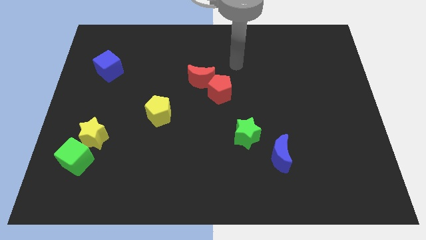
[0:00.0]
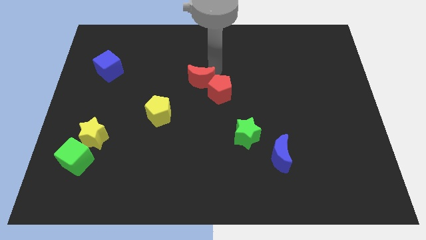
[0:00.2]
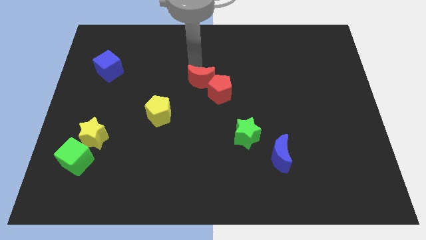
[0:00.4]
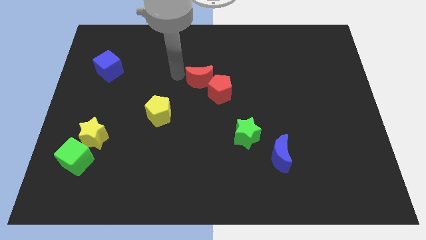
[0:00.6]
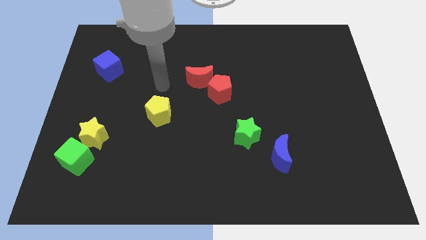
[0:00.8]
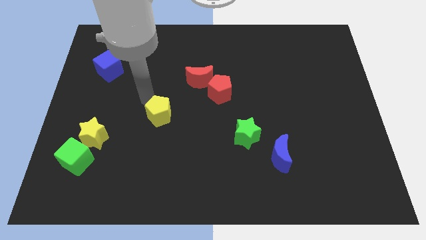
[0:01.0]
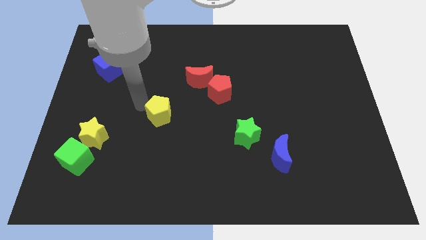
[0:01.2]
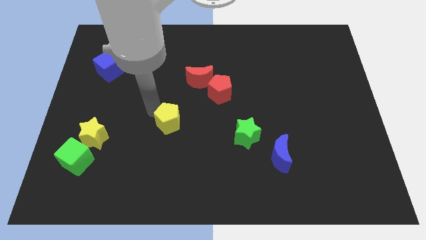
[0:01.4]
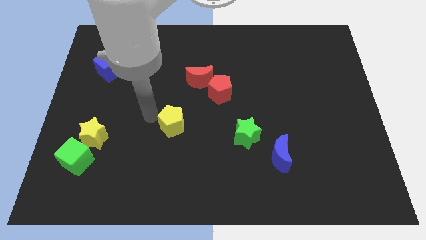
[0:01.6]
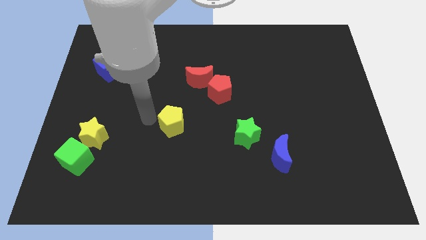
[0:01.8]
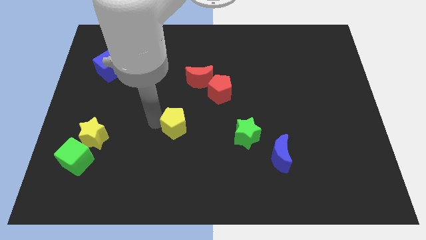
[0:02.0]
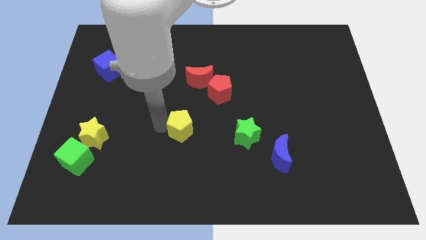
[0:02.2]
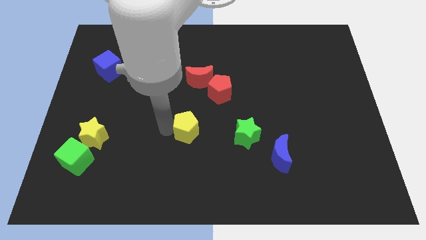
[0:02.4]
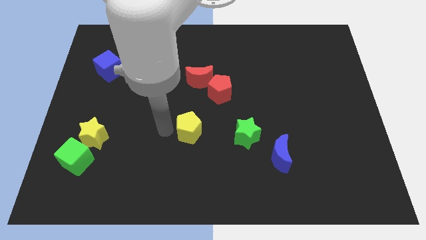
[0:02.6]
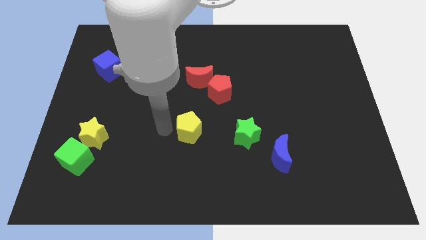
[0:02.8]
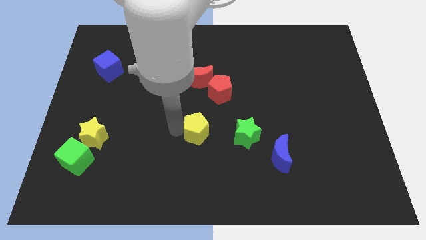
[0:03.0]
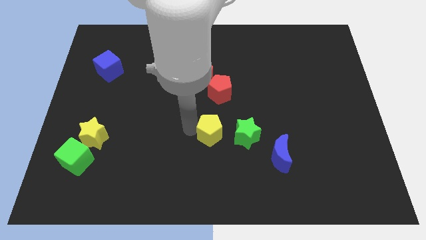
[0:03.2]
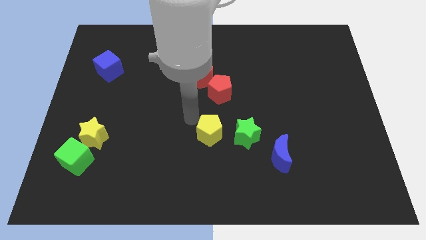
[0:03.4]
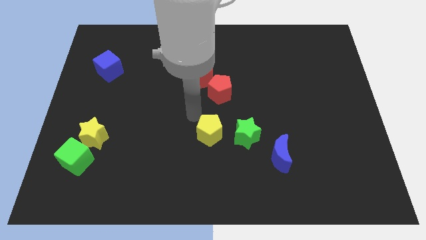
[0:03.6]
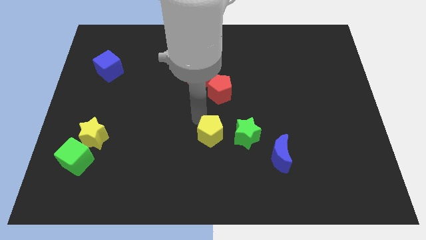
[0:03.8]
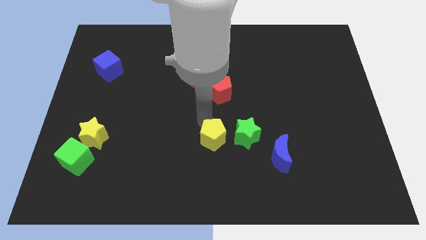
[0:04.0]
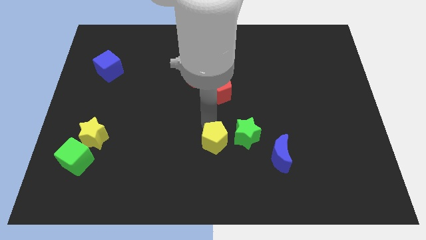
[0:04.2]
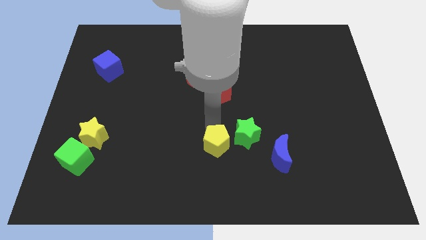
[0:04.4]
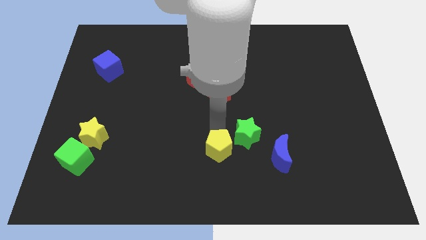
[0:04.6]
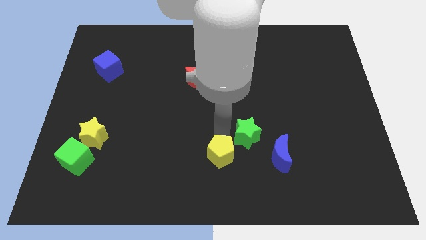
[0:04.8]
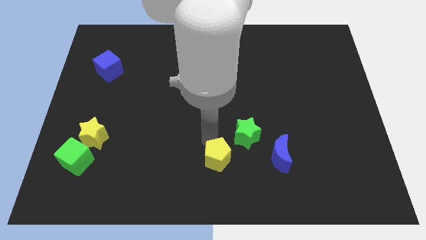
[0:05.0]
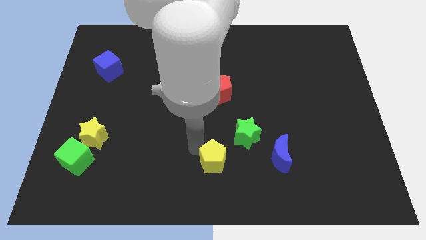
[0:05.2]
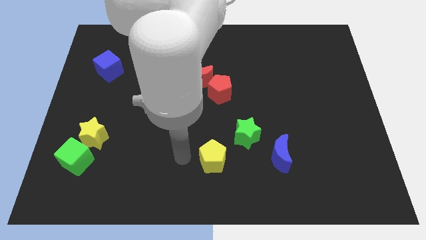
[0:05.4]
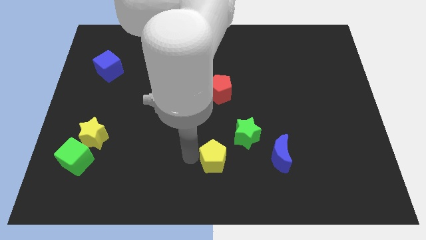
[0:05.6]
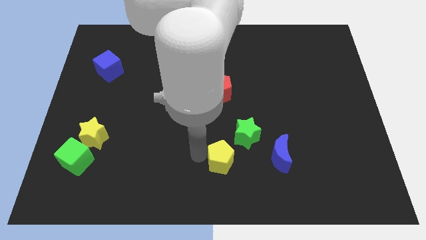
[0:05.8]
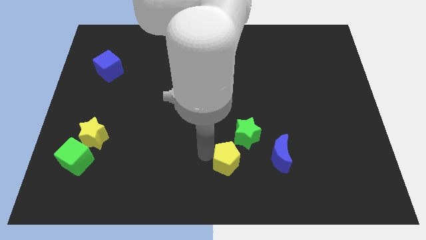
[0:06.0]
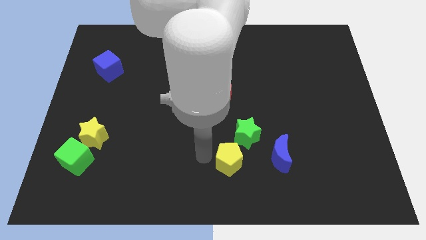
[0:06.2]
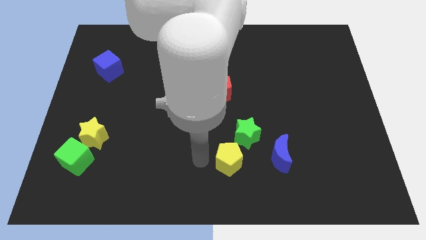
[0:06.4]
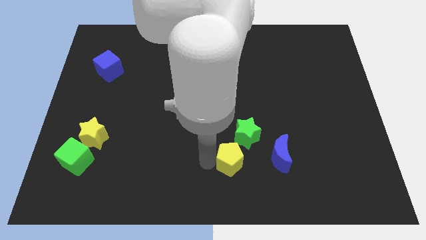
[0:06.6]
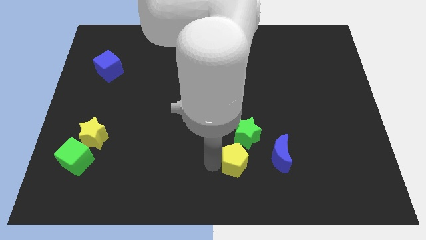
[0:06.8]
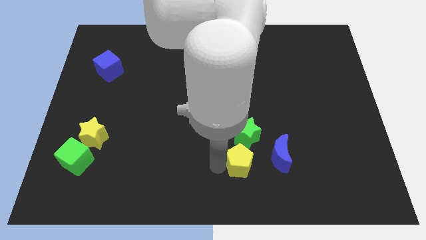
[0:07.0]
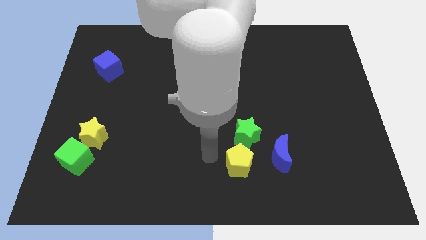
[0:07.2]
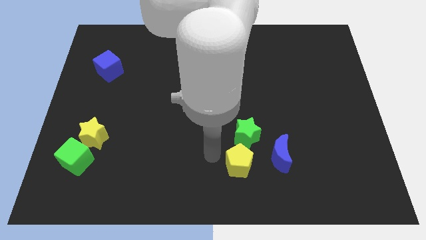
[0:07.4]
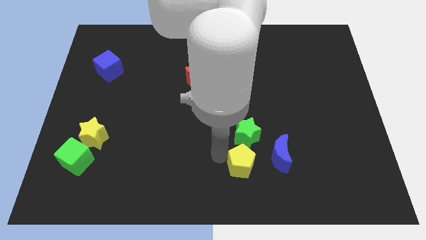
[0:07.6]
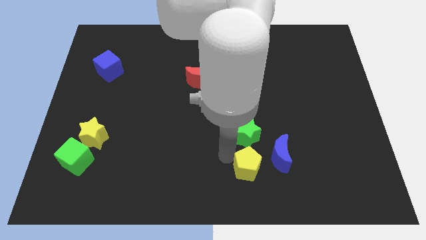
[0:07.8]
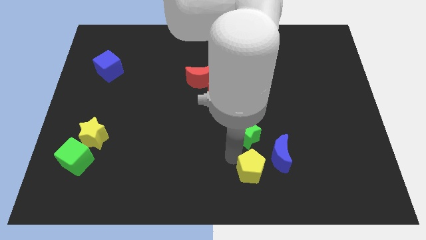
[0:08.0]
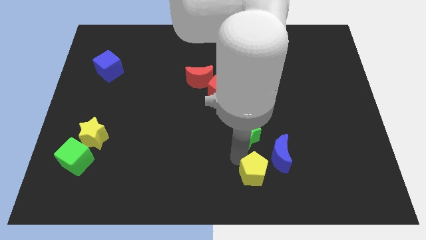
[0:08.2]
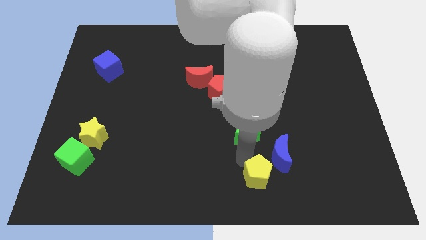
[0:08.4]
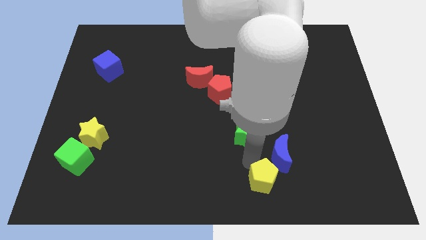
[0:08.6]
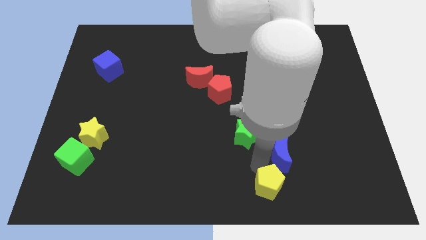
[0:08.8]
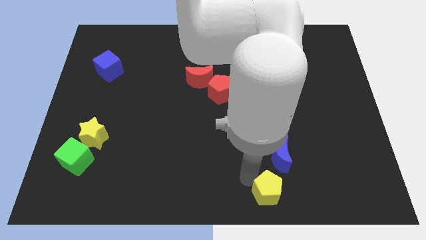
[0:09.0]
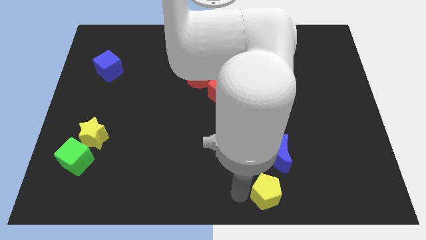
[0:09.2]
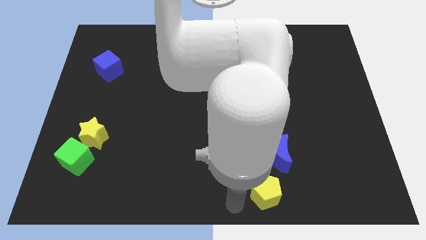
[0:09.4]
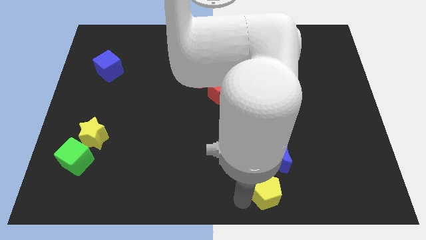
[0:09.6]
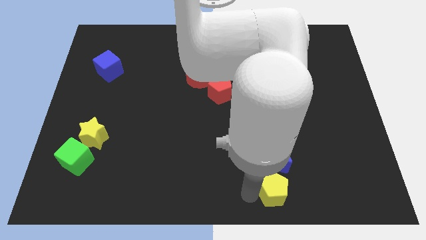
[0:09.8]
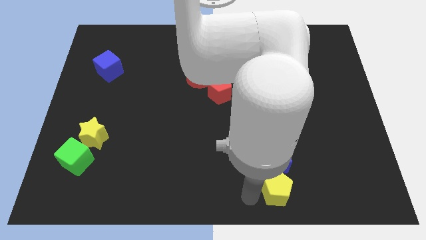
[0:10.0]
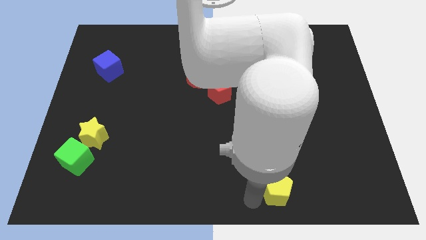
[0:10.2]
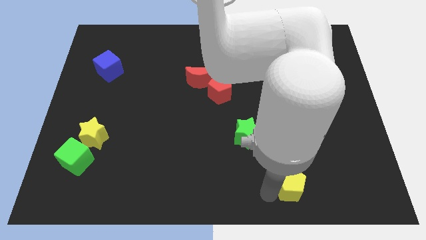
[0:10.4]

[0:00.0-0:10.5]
push the yellow pentagon to the bottom right of the blue moon

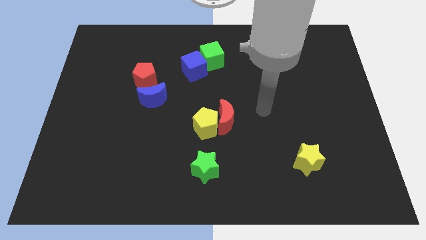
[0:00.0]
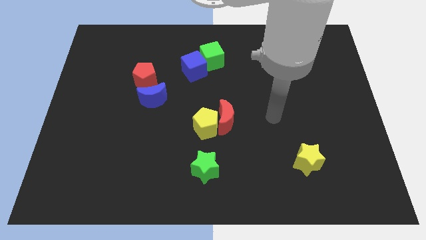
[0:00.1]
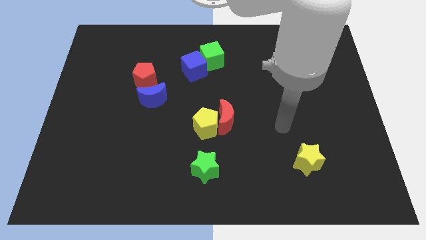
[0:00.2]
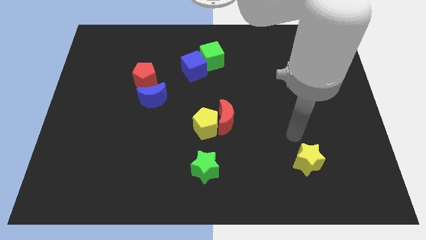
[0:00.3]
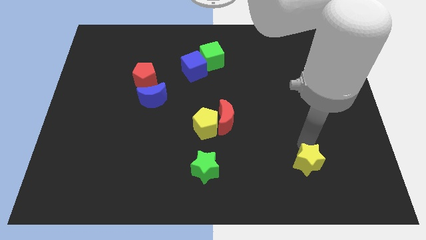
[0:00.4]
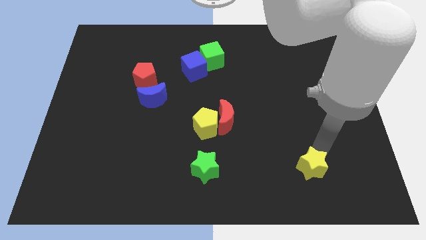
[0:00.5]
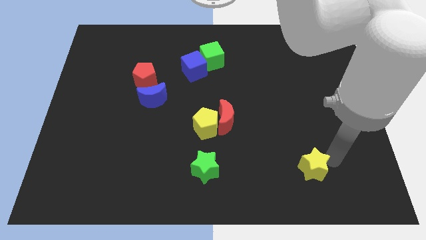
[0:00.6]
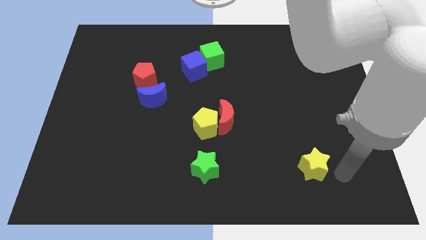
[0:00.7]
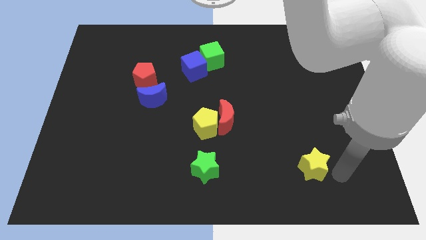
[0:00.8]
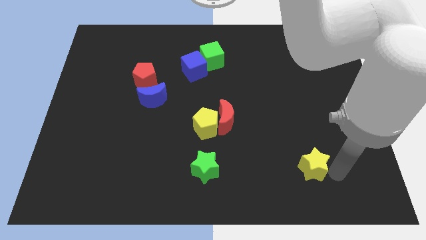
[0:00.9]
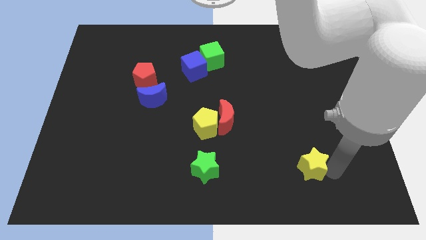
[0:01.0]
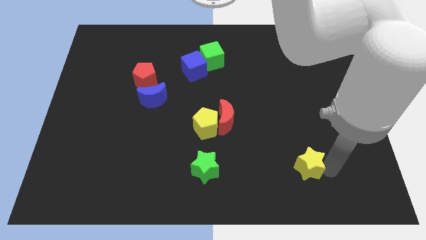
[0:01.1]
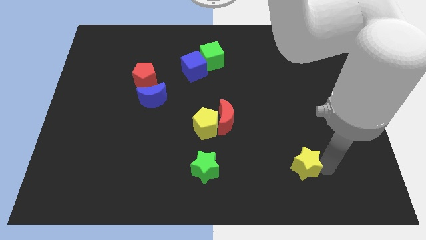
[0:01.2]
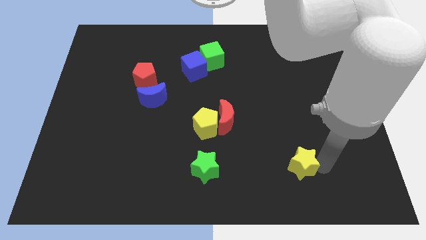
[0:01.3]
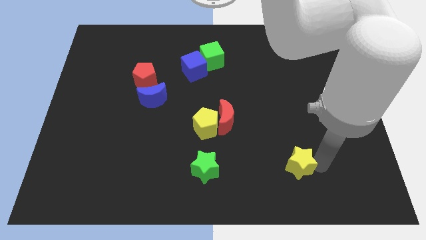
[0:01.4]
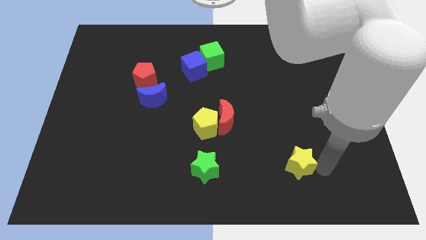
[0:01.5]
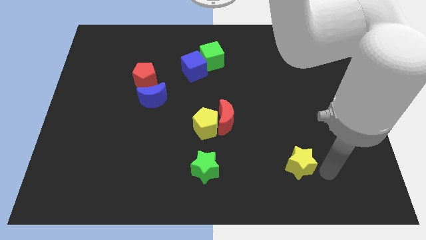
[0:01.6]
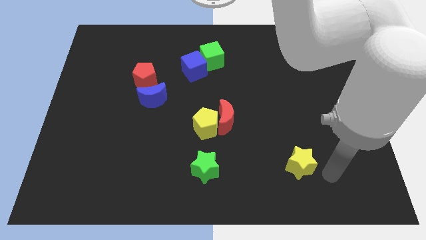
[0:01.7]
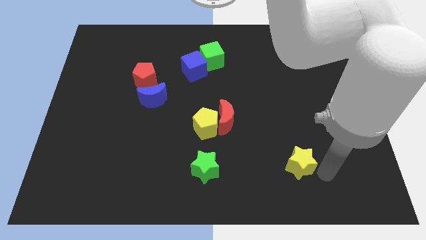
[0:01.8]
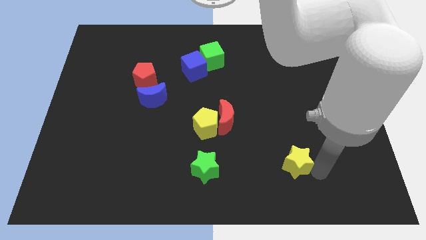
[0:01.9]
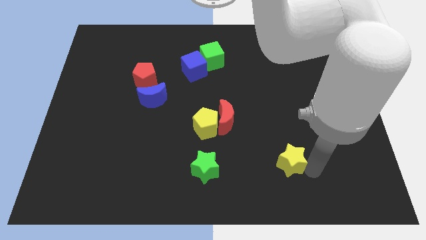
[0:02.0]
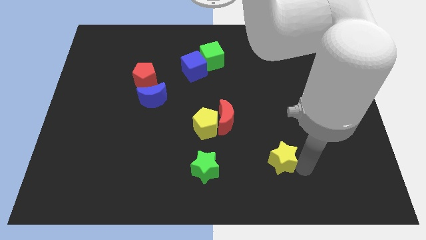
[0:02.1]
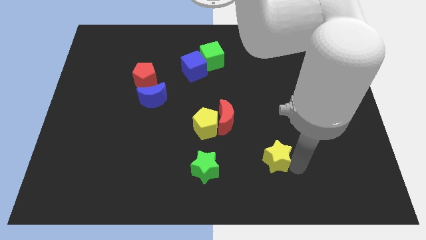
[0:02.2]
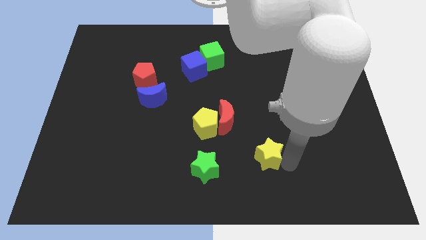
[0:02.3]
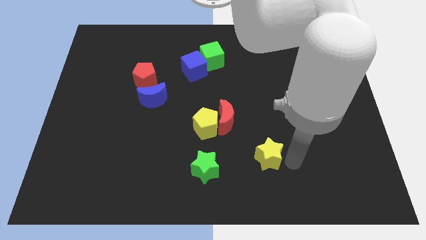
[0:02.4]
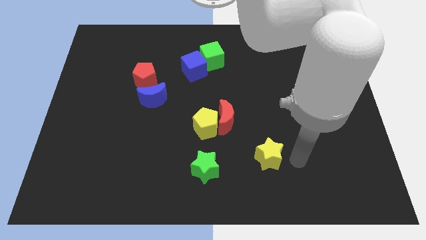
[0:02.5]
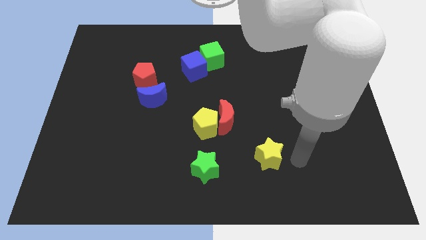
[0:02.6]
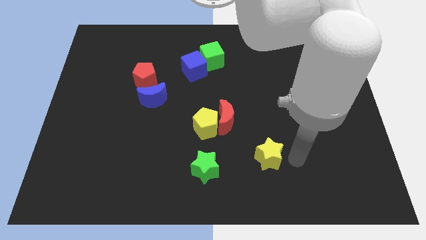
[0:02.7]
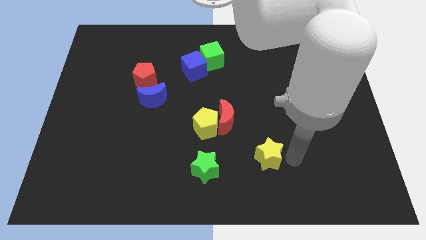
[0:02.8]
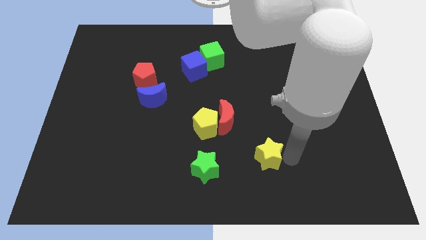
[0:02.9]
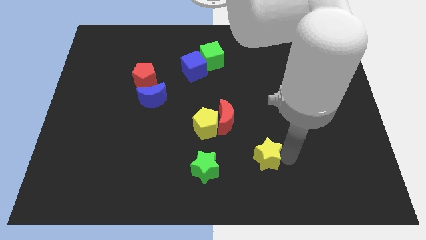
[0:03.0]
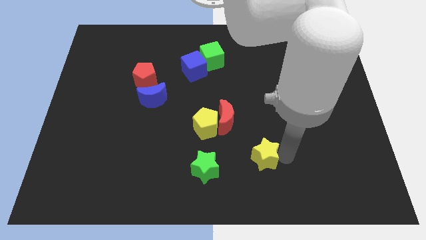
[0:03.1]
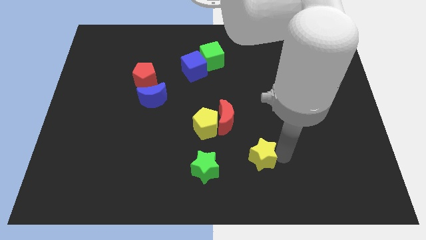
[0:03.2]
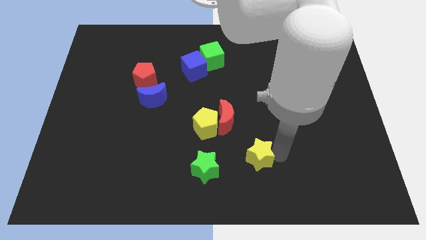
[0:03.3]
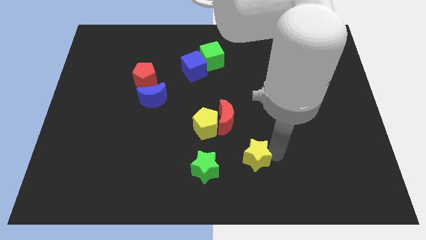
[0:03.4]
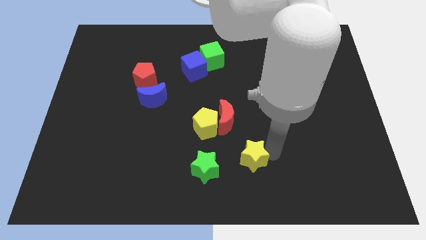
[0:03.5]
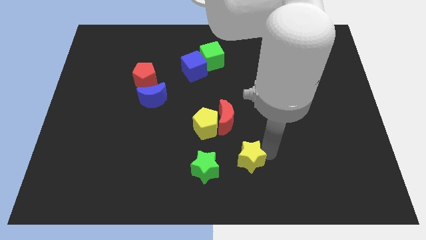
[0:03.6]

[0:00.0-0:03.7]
slide the yellow star to the bottom side of the red moon
